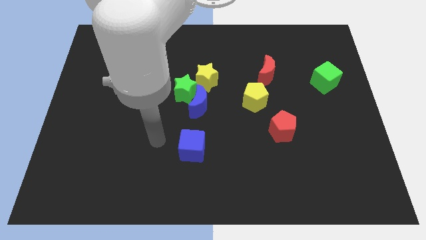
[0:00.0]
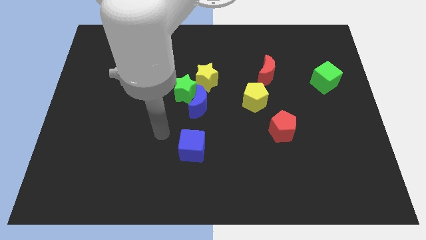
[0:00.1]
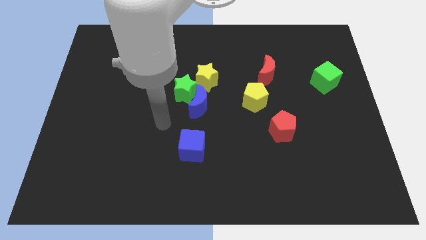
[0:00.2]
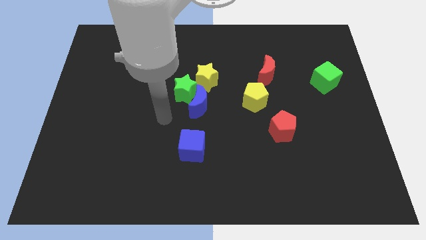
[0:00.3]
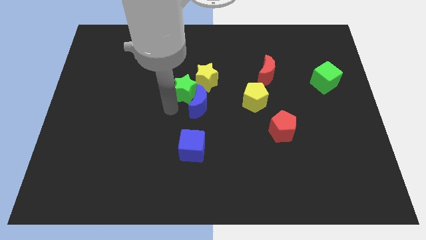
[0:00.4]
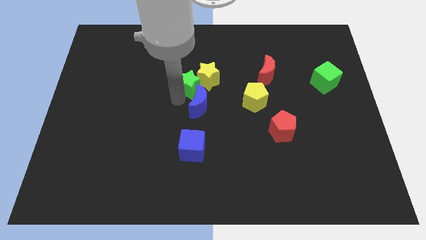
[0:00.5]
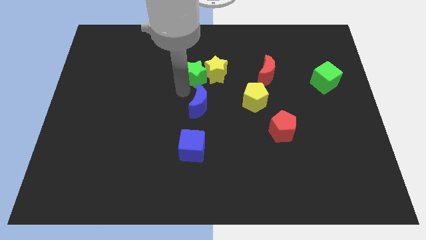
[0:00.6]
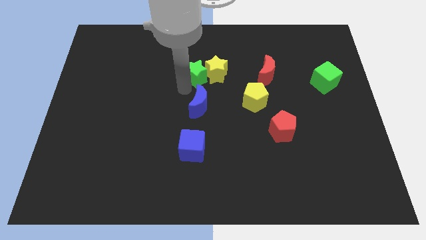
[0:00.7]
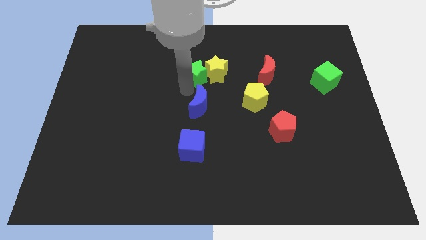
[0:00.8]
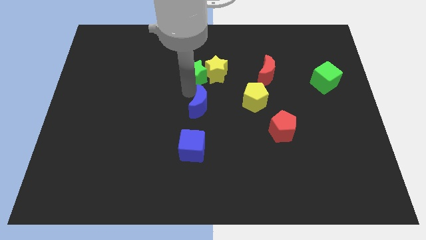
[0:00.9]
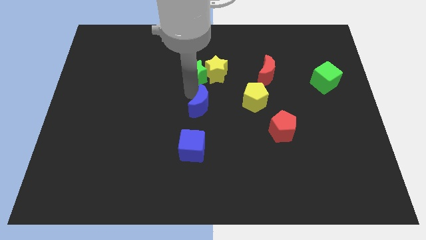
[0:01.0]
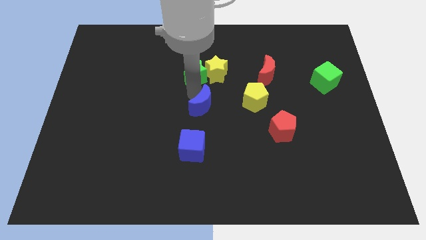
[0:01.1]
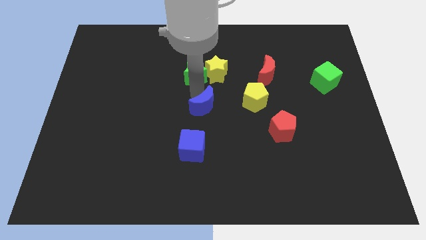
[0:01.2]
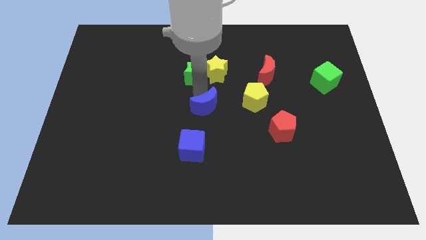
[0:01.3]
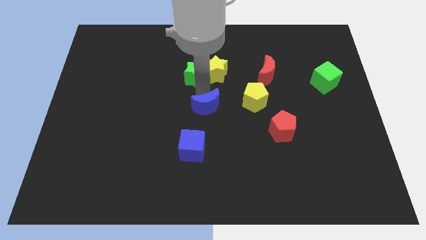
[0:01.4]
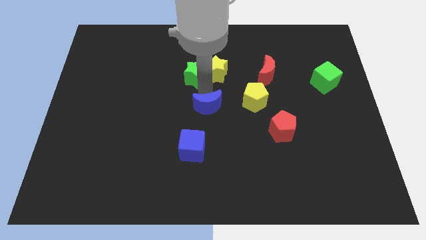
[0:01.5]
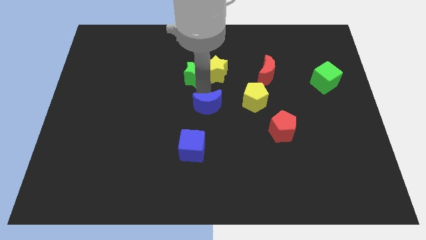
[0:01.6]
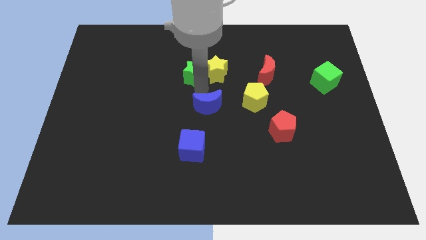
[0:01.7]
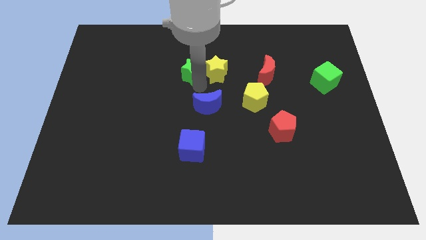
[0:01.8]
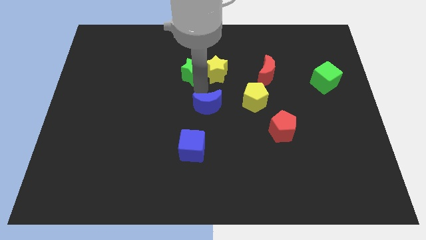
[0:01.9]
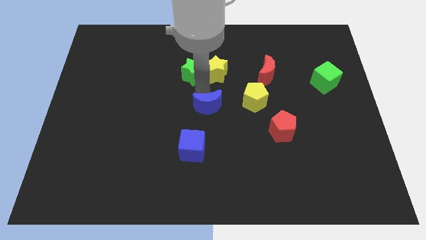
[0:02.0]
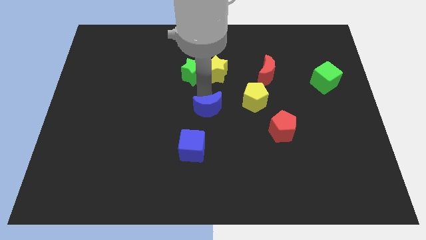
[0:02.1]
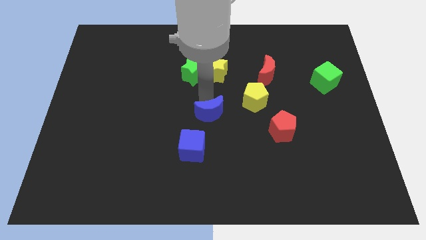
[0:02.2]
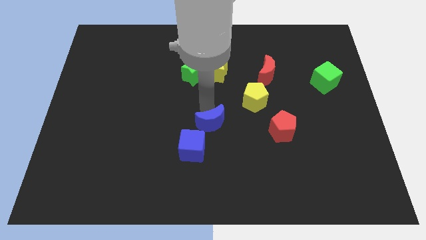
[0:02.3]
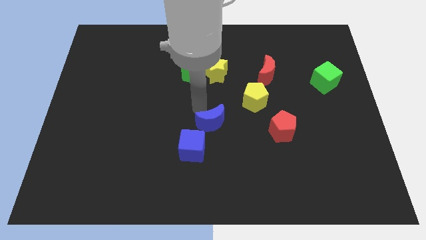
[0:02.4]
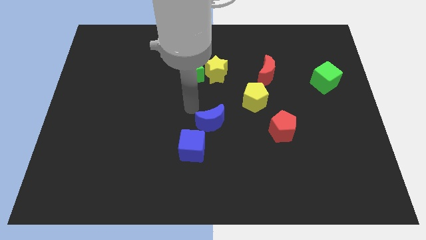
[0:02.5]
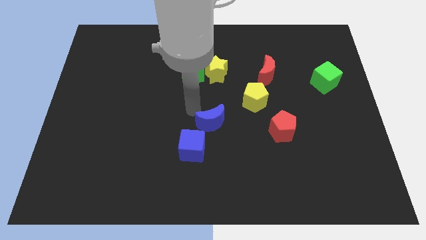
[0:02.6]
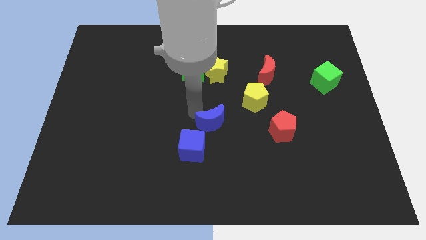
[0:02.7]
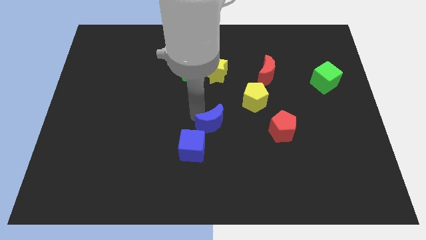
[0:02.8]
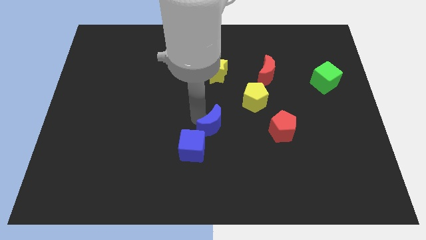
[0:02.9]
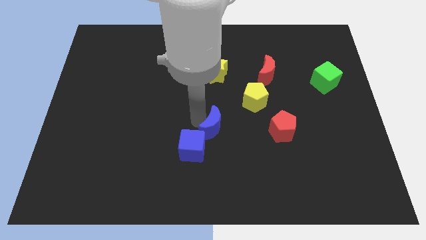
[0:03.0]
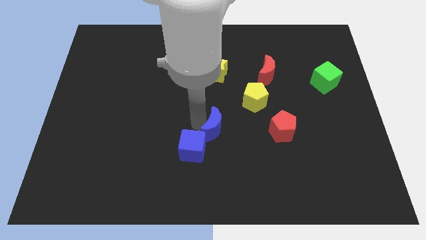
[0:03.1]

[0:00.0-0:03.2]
slide the blue moon somewhat diagonally downwards and right

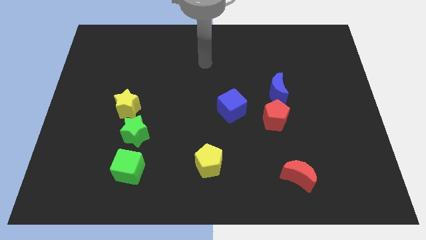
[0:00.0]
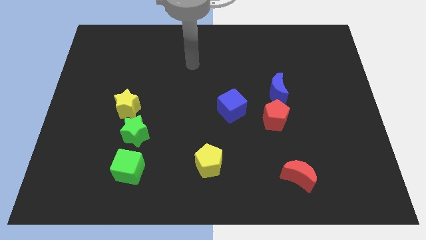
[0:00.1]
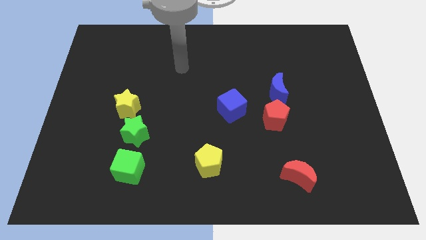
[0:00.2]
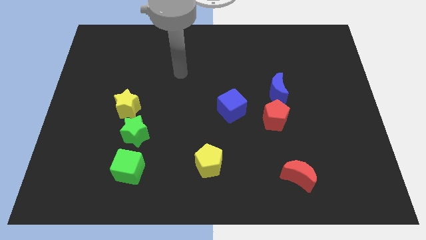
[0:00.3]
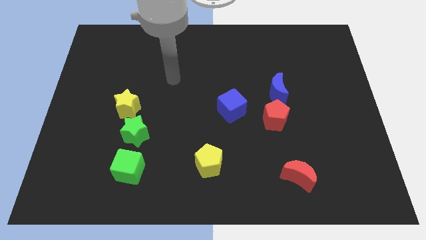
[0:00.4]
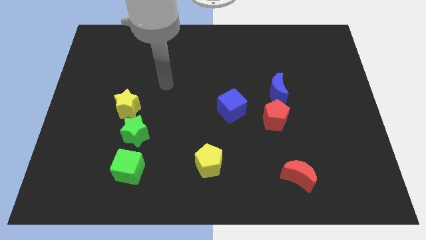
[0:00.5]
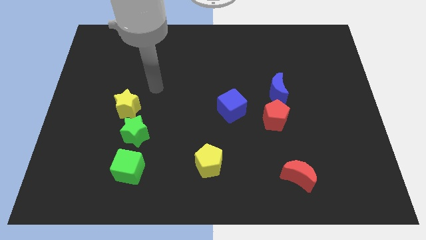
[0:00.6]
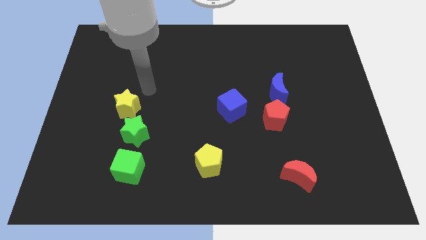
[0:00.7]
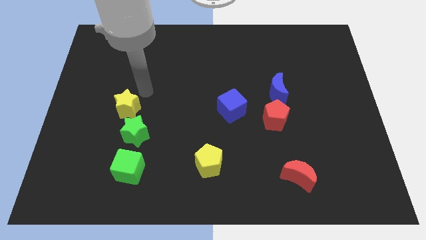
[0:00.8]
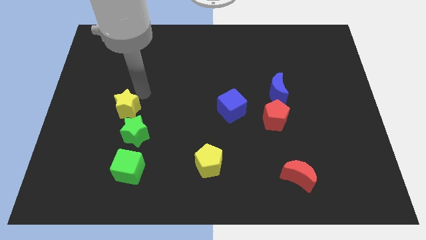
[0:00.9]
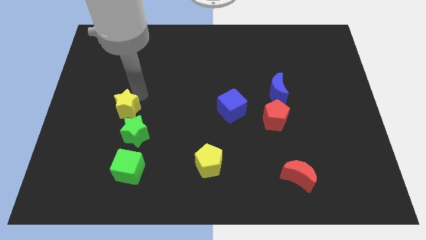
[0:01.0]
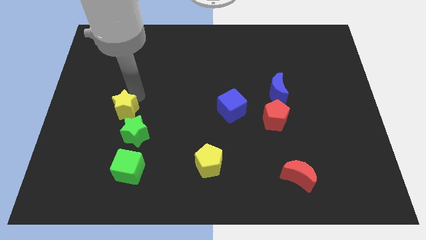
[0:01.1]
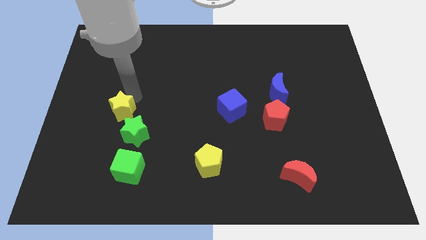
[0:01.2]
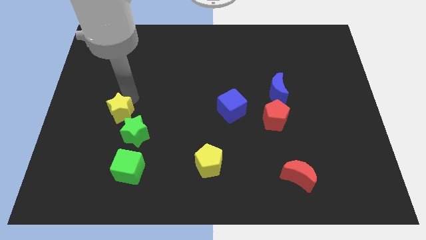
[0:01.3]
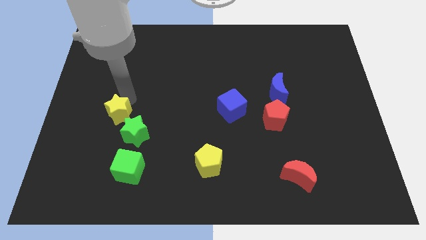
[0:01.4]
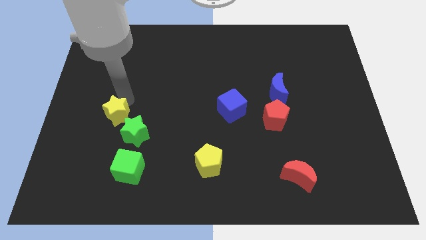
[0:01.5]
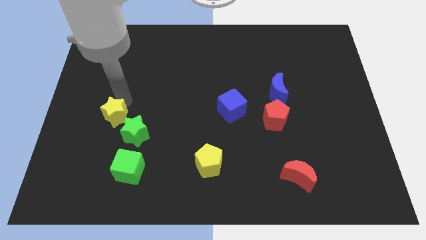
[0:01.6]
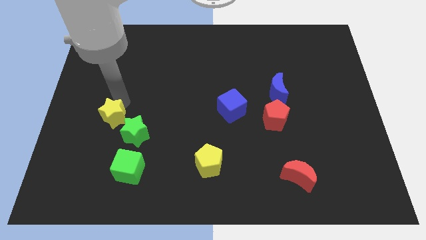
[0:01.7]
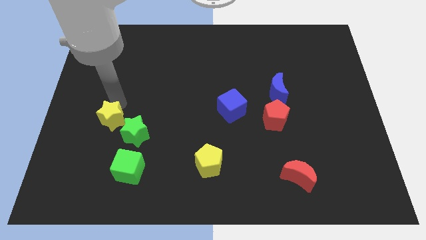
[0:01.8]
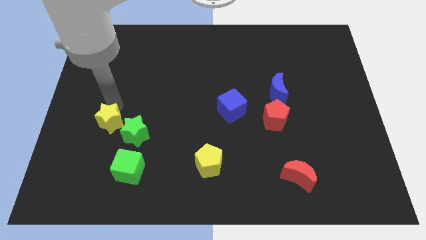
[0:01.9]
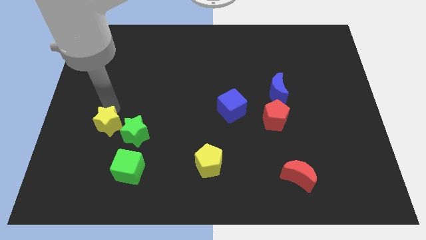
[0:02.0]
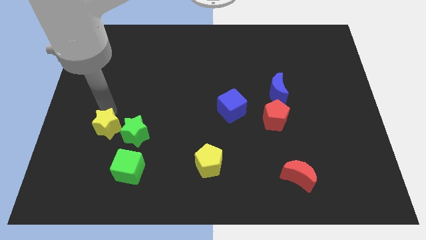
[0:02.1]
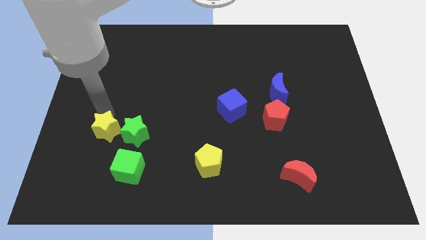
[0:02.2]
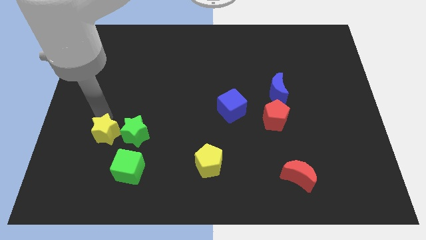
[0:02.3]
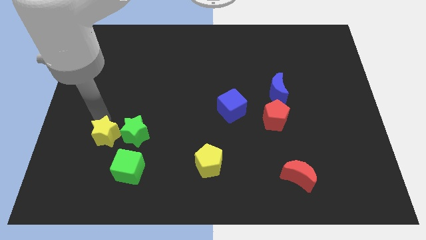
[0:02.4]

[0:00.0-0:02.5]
push the yellow star downwards a little bit

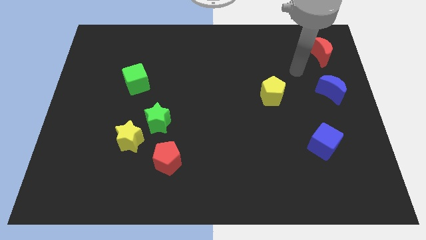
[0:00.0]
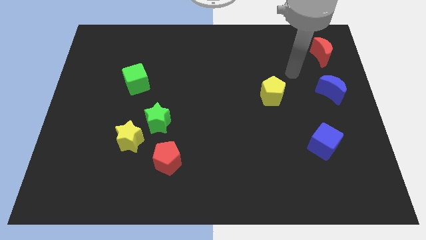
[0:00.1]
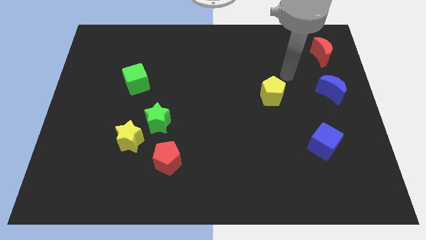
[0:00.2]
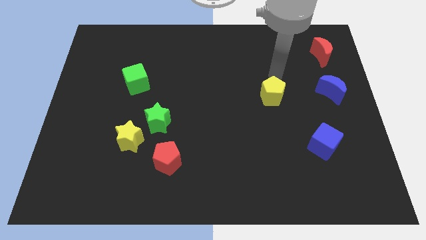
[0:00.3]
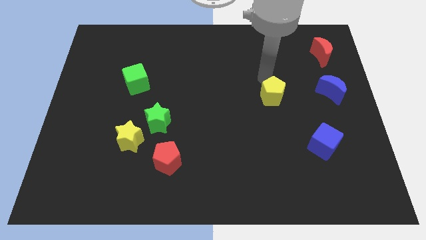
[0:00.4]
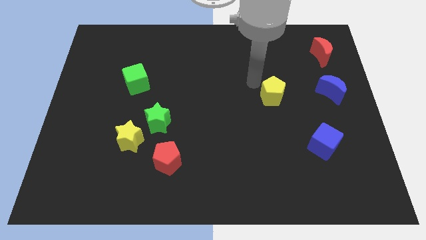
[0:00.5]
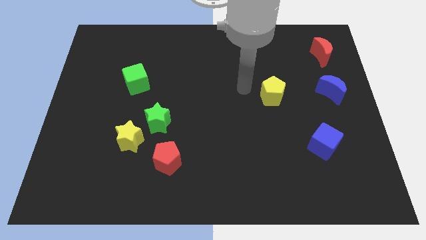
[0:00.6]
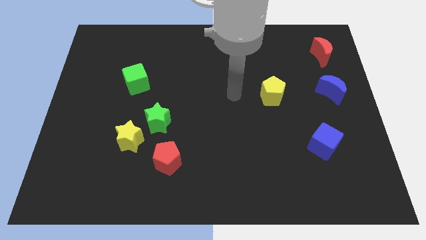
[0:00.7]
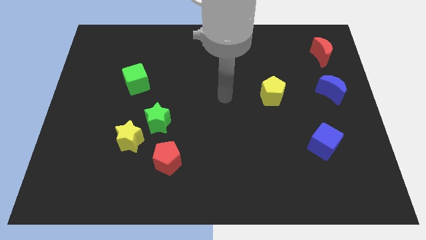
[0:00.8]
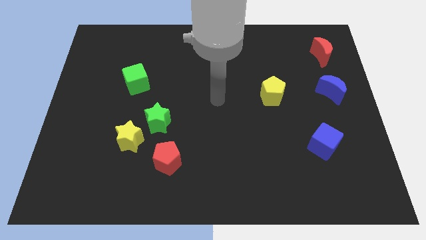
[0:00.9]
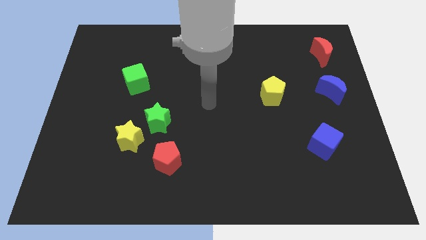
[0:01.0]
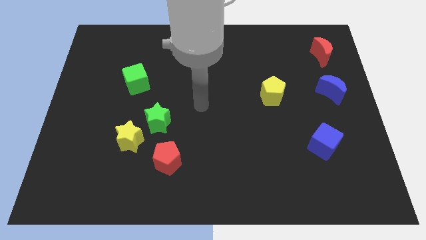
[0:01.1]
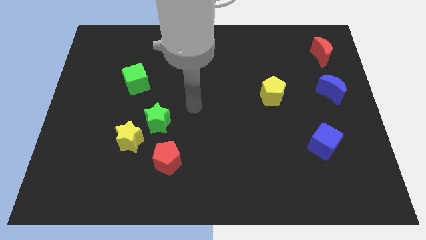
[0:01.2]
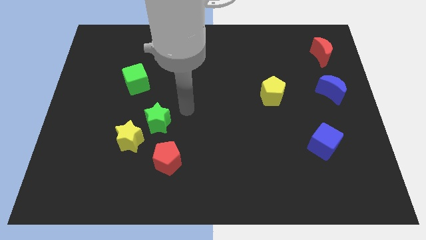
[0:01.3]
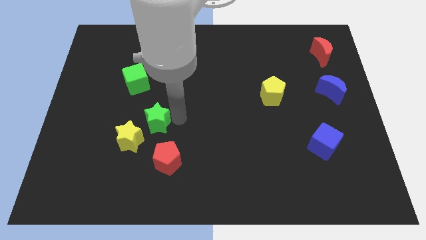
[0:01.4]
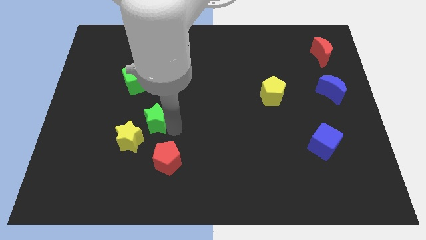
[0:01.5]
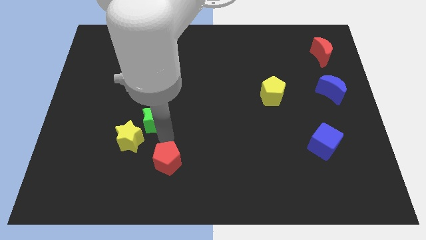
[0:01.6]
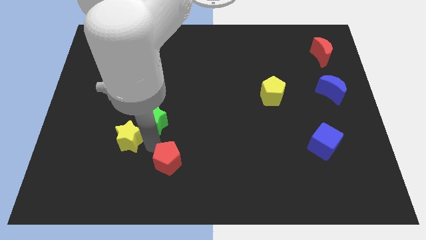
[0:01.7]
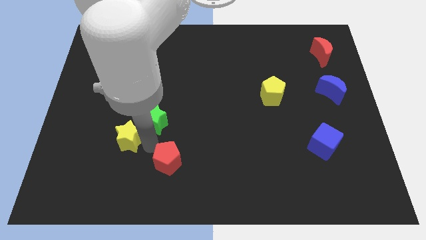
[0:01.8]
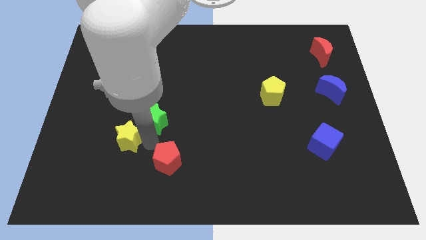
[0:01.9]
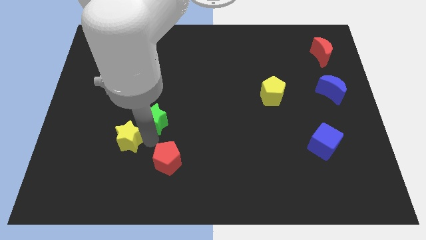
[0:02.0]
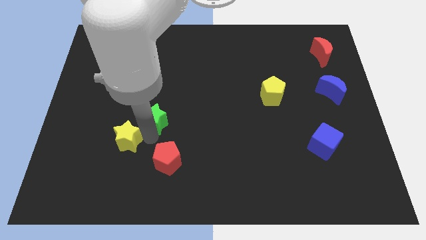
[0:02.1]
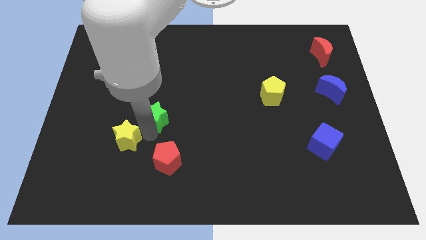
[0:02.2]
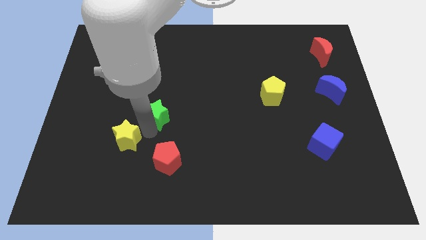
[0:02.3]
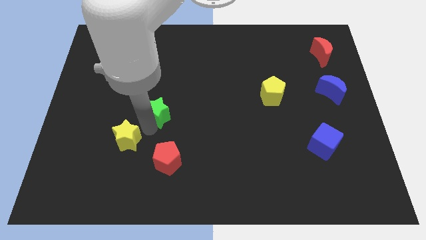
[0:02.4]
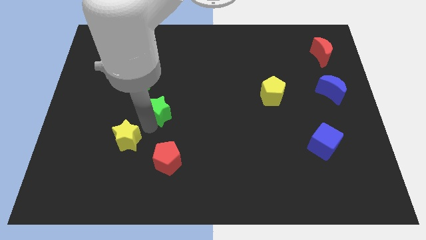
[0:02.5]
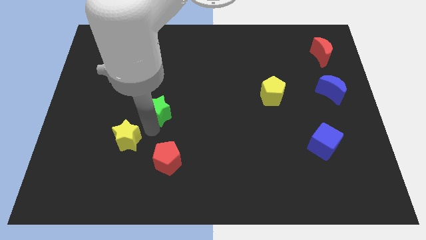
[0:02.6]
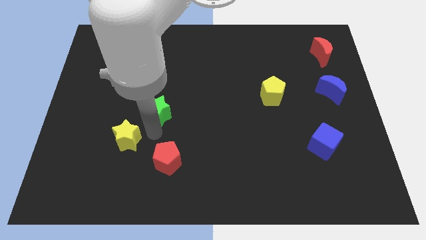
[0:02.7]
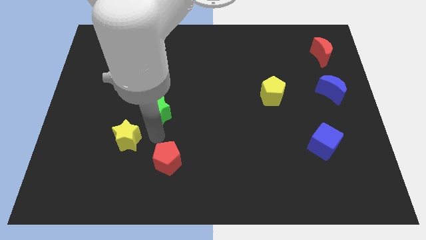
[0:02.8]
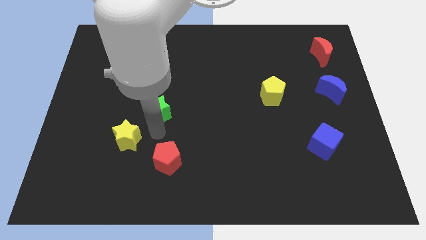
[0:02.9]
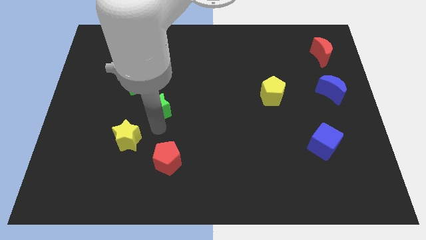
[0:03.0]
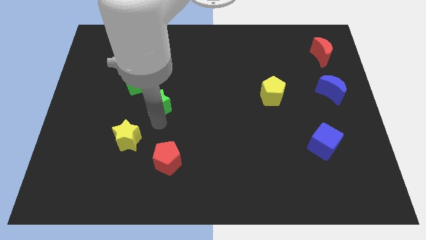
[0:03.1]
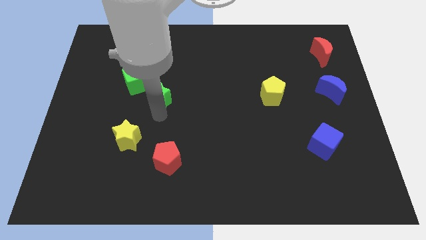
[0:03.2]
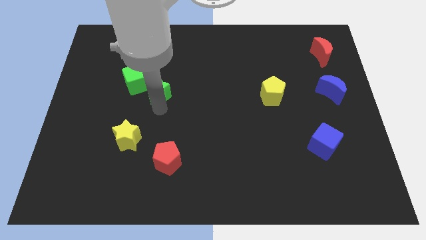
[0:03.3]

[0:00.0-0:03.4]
move the green star slightly upwards
